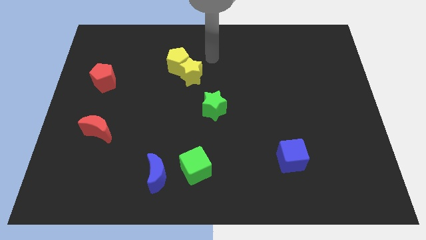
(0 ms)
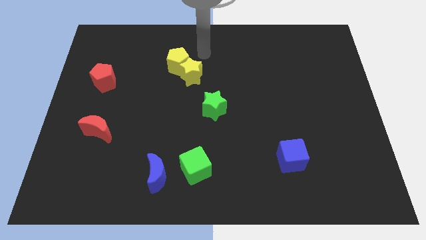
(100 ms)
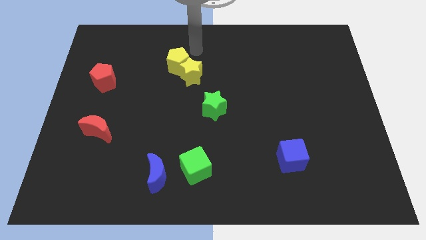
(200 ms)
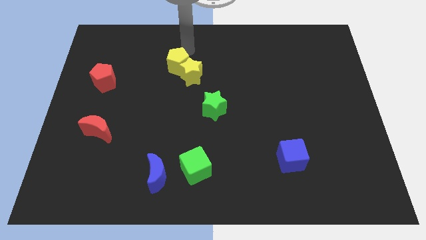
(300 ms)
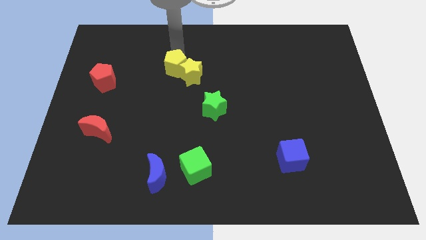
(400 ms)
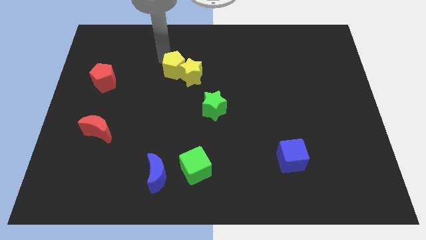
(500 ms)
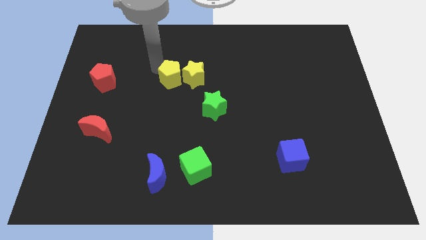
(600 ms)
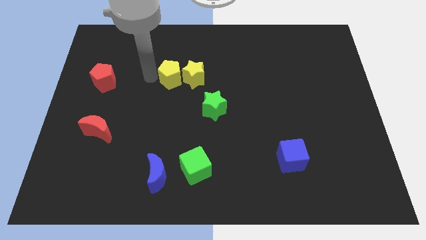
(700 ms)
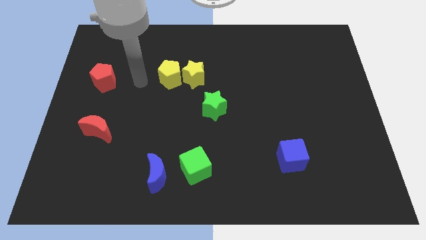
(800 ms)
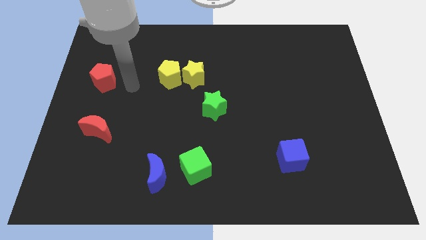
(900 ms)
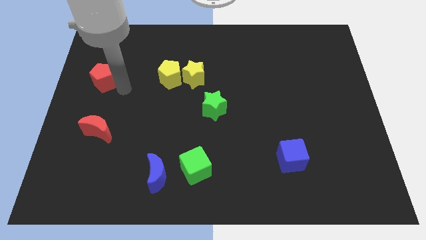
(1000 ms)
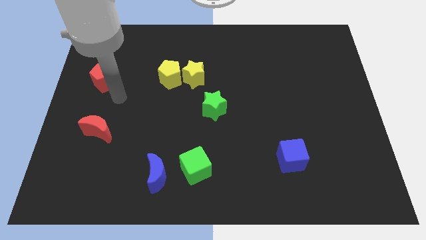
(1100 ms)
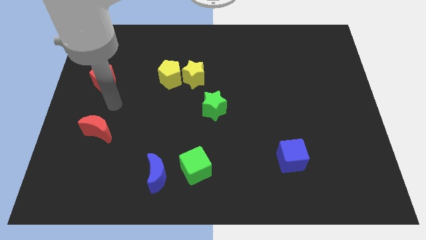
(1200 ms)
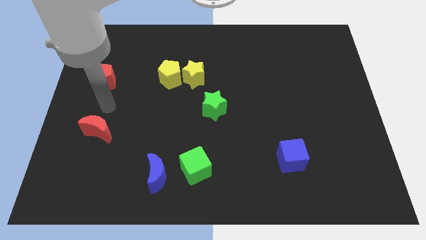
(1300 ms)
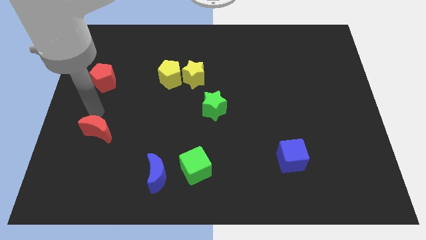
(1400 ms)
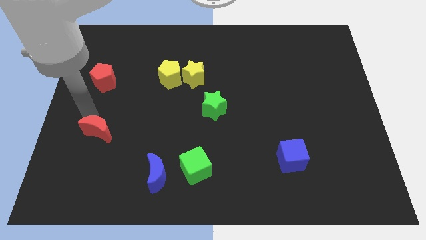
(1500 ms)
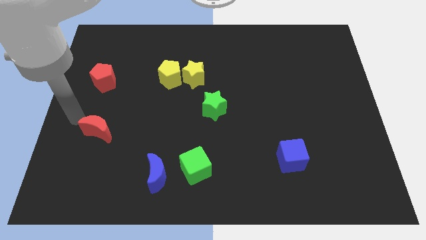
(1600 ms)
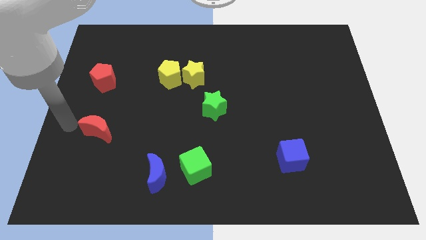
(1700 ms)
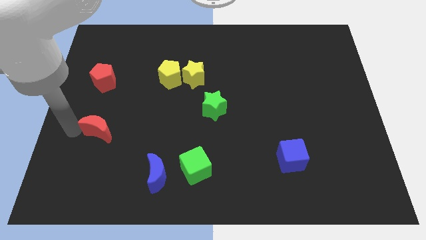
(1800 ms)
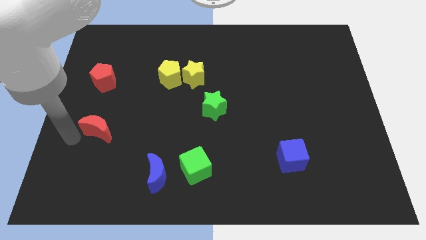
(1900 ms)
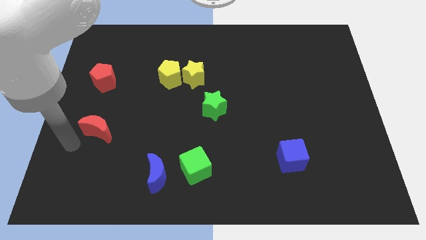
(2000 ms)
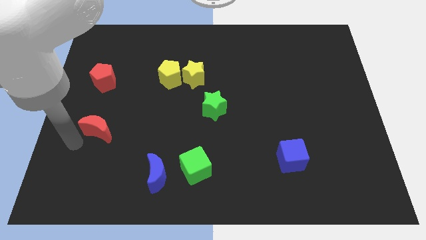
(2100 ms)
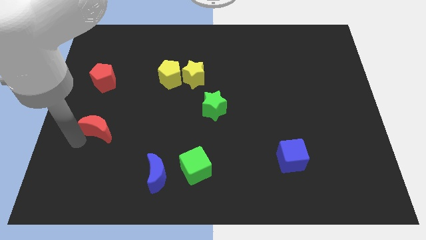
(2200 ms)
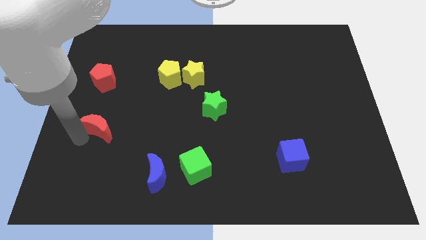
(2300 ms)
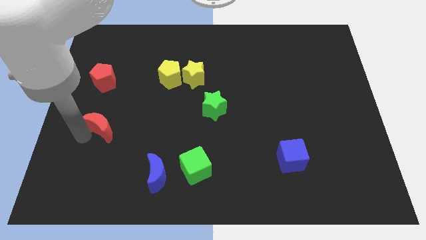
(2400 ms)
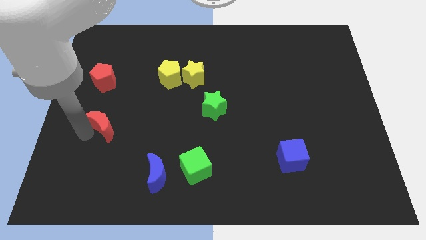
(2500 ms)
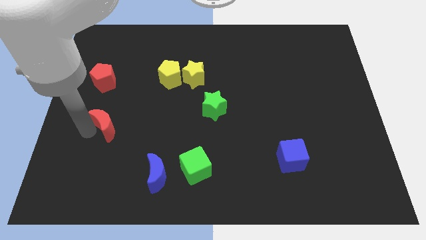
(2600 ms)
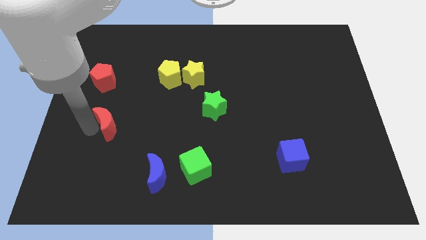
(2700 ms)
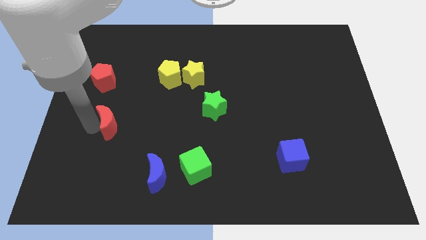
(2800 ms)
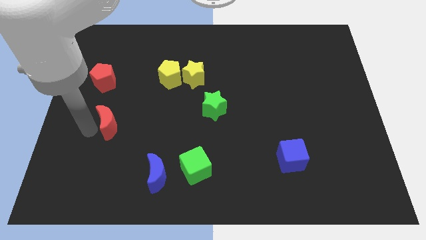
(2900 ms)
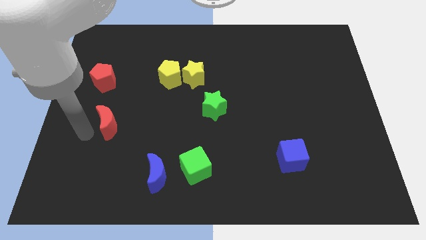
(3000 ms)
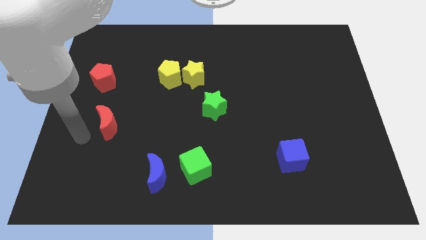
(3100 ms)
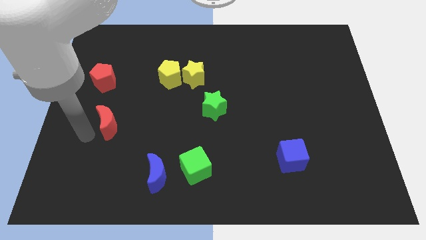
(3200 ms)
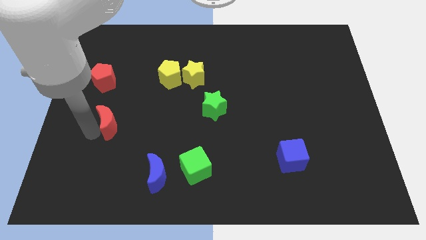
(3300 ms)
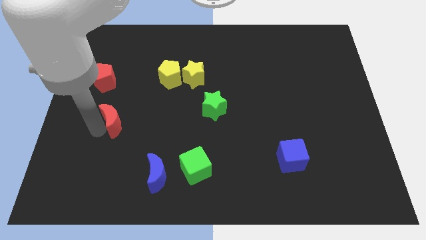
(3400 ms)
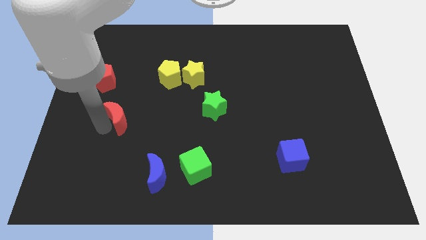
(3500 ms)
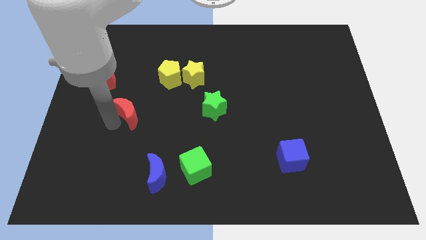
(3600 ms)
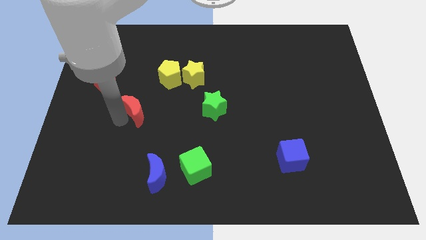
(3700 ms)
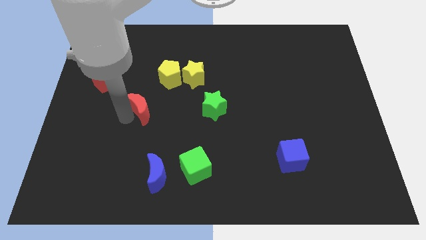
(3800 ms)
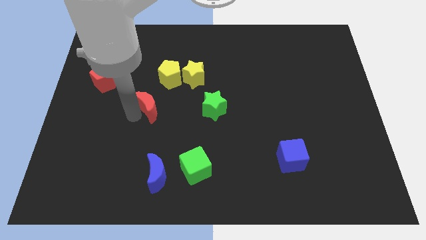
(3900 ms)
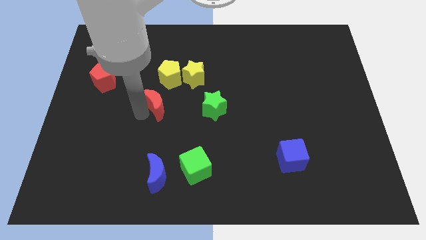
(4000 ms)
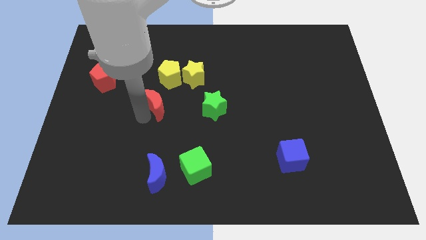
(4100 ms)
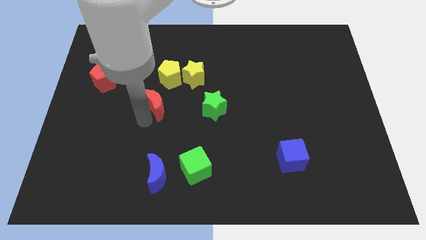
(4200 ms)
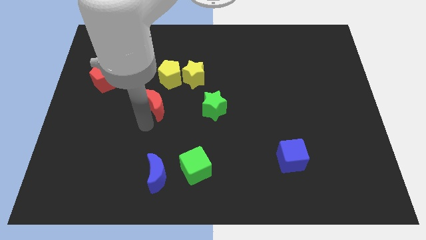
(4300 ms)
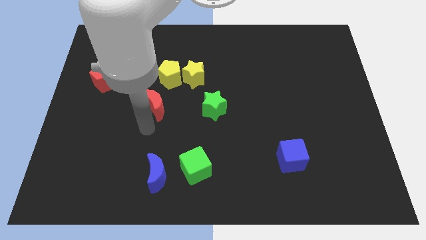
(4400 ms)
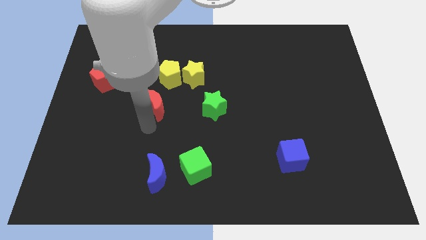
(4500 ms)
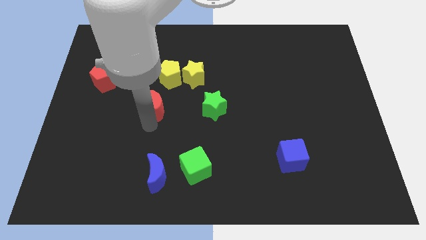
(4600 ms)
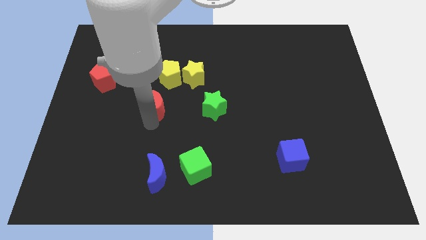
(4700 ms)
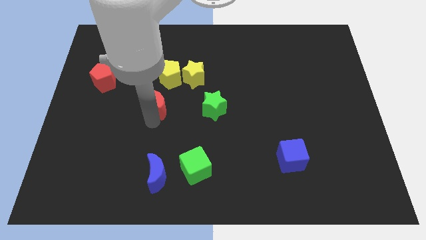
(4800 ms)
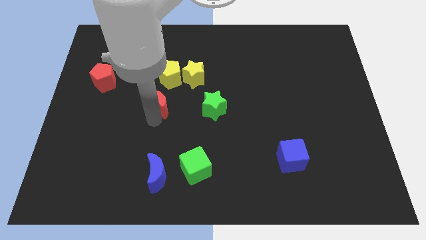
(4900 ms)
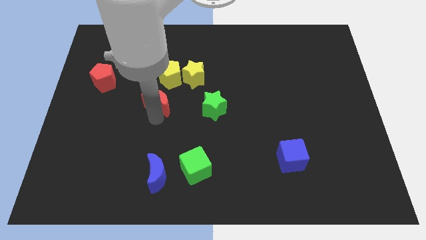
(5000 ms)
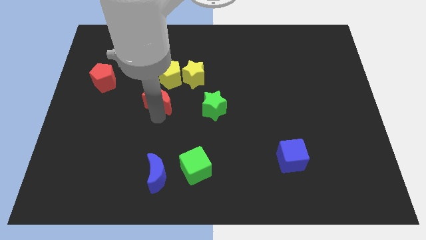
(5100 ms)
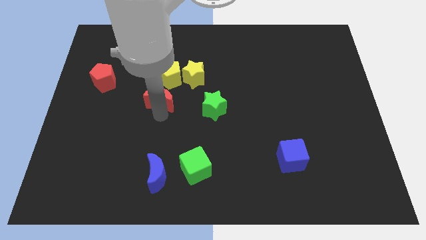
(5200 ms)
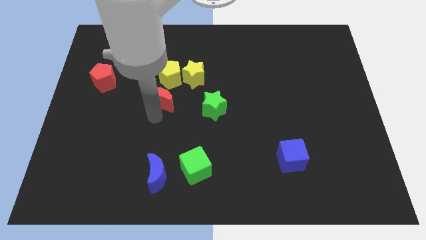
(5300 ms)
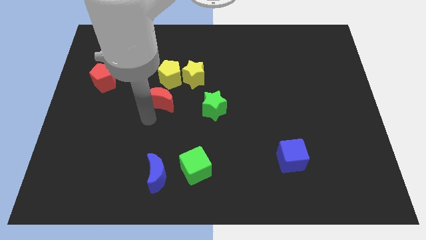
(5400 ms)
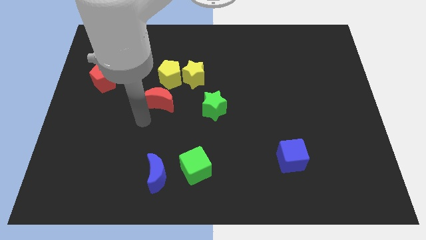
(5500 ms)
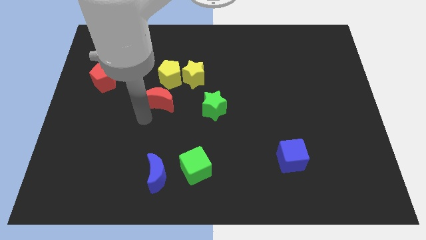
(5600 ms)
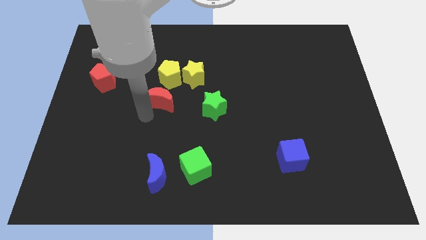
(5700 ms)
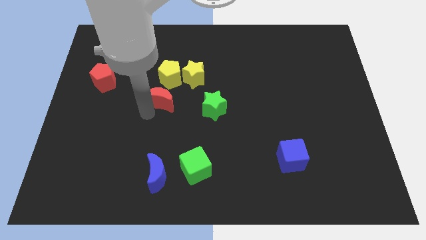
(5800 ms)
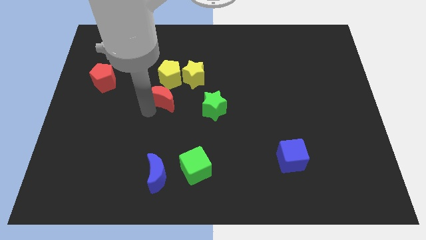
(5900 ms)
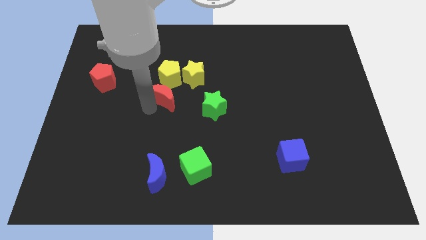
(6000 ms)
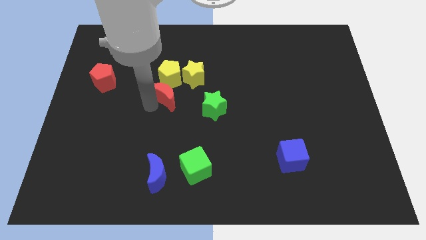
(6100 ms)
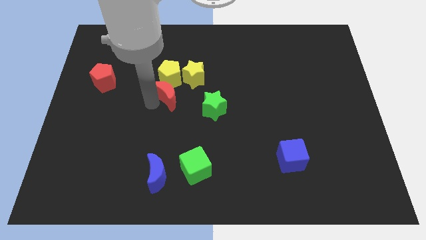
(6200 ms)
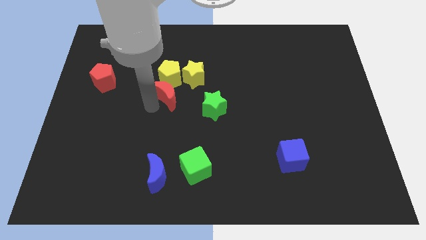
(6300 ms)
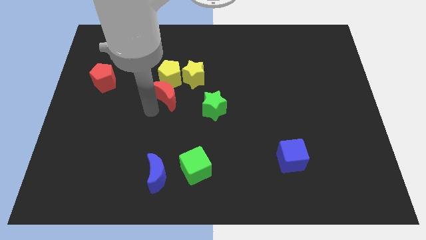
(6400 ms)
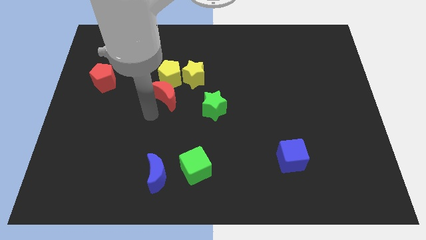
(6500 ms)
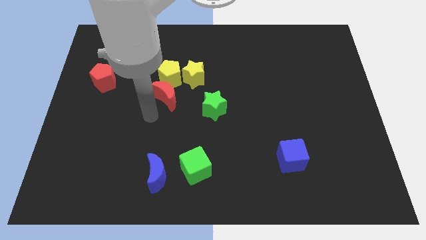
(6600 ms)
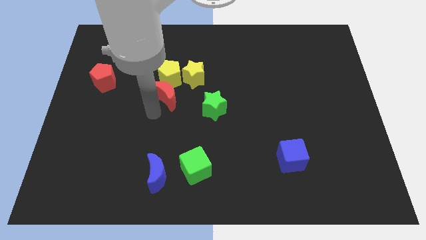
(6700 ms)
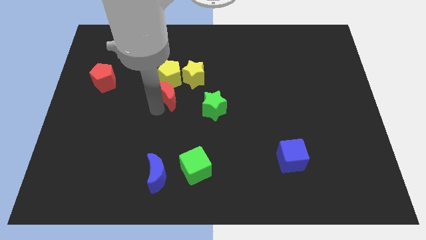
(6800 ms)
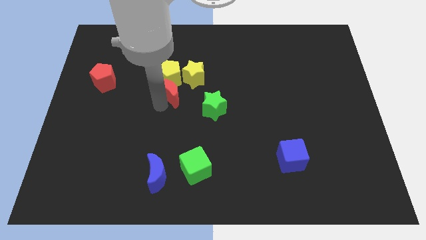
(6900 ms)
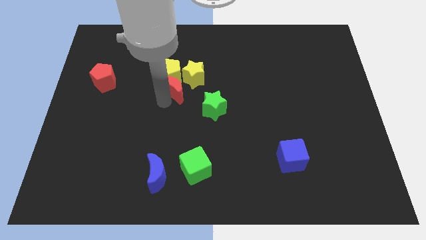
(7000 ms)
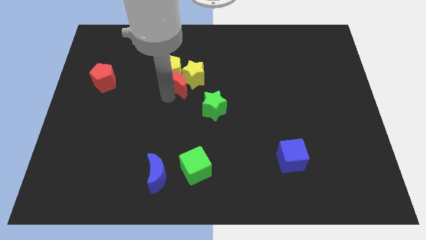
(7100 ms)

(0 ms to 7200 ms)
slide the red moon next to the yellow star
